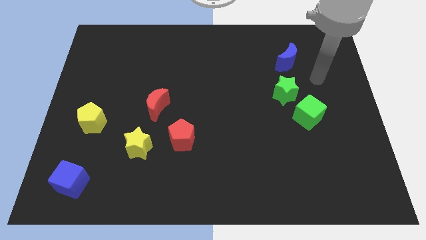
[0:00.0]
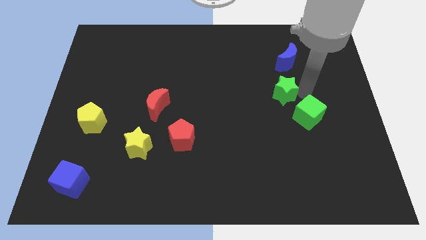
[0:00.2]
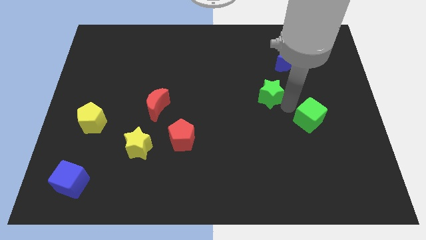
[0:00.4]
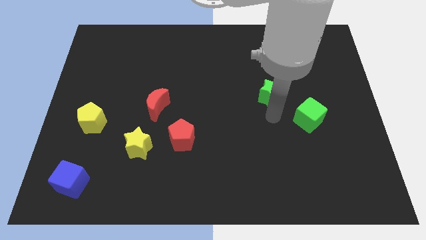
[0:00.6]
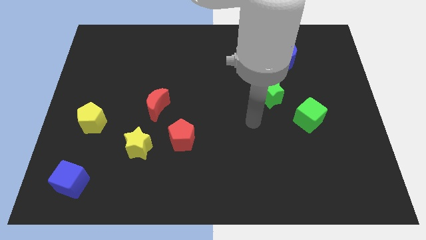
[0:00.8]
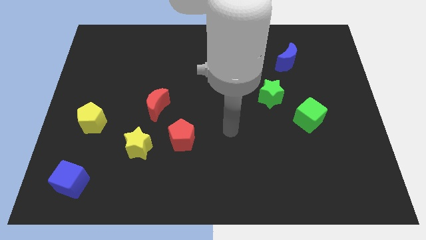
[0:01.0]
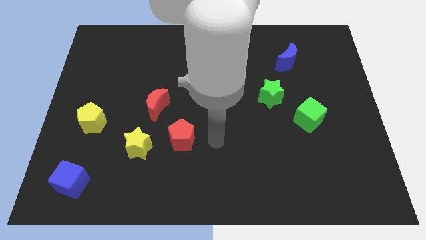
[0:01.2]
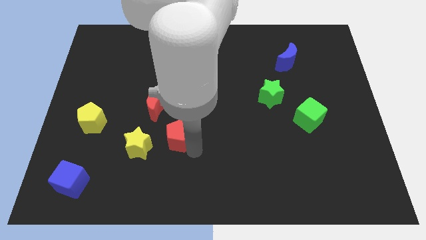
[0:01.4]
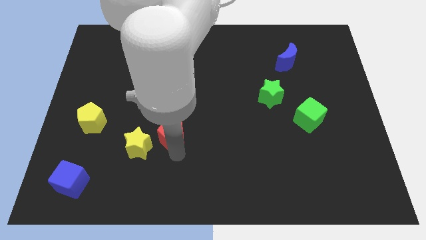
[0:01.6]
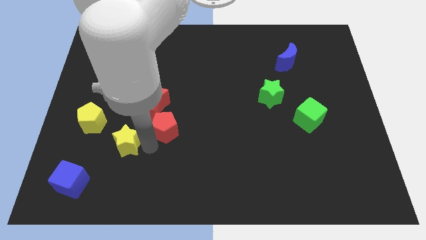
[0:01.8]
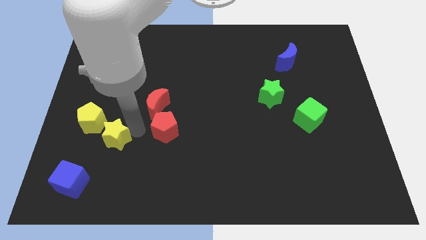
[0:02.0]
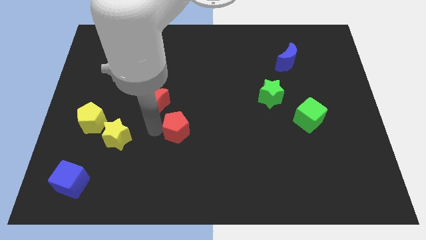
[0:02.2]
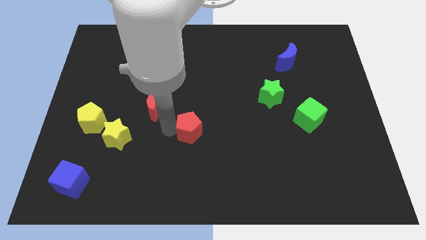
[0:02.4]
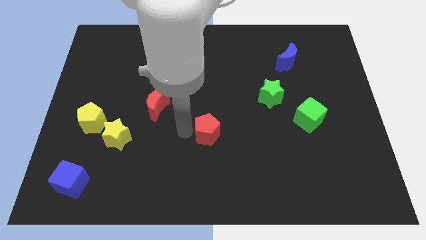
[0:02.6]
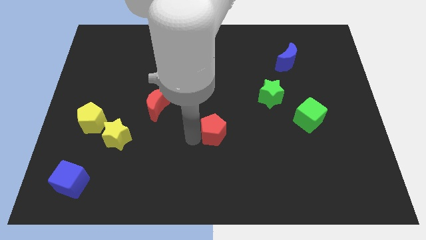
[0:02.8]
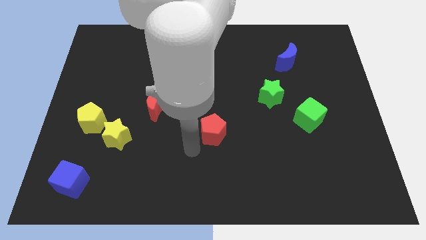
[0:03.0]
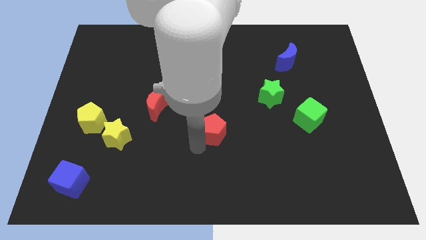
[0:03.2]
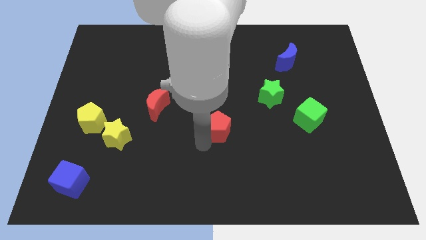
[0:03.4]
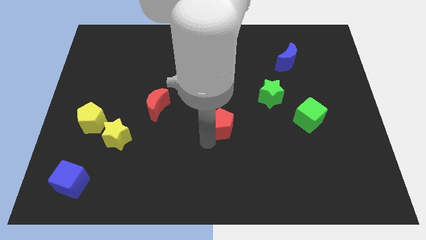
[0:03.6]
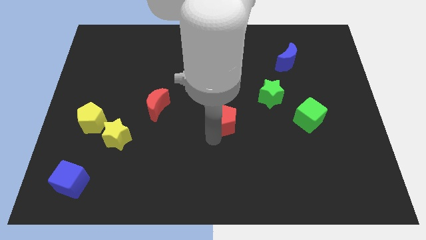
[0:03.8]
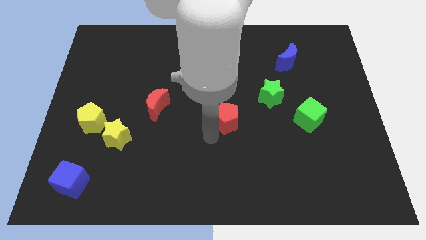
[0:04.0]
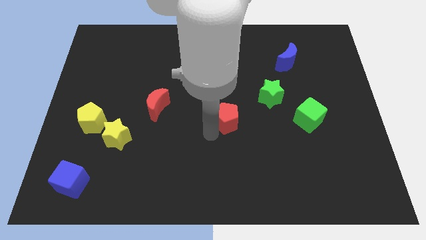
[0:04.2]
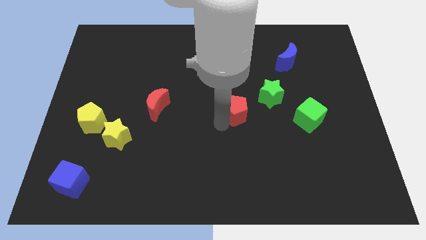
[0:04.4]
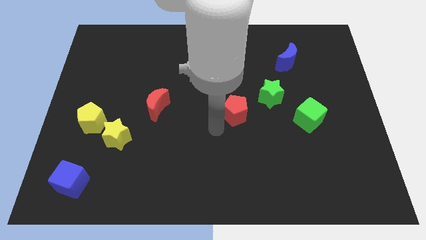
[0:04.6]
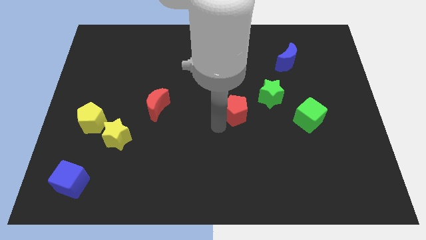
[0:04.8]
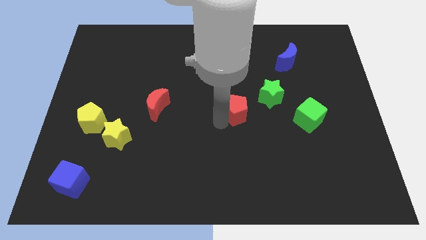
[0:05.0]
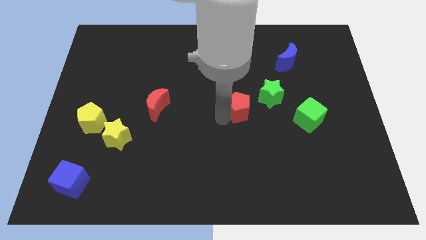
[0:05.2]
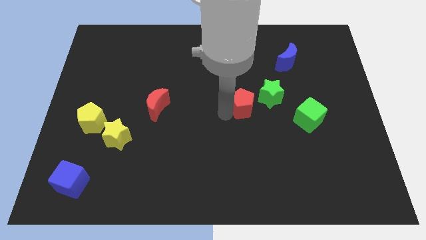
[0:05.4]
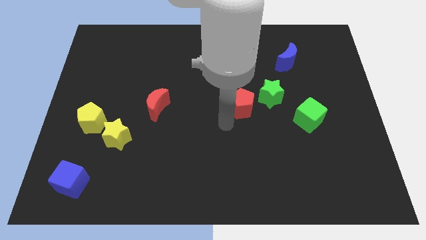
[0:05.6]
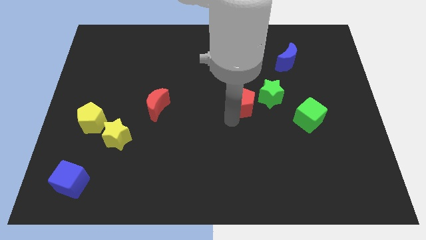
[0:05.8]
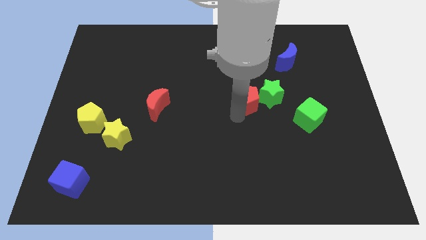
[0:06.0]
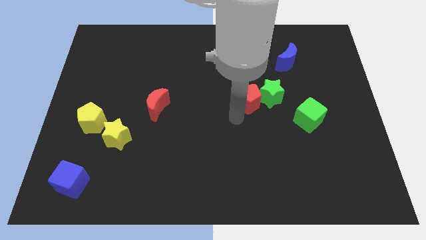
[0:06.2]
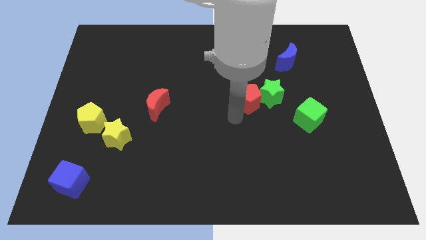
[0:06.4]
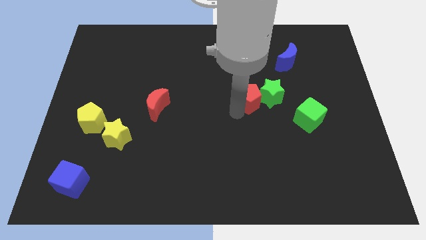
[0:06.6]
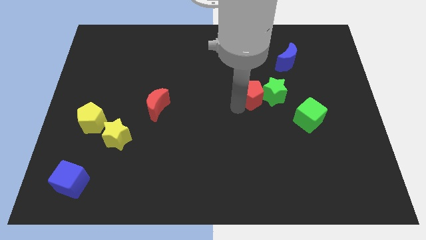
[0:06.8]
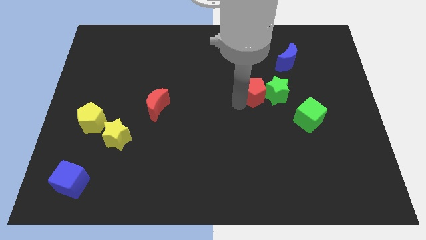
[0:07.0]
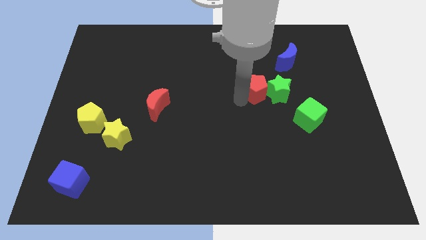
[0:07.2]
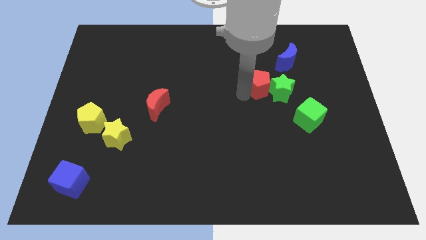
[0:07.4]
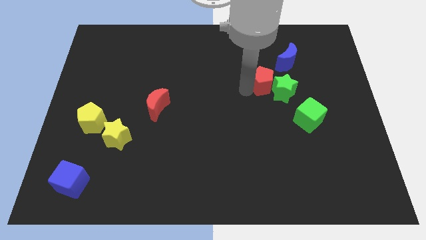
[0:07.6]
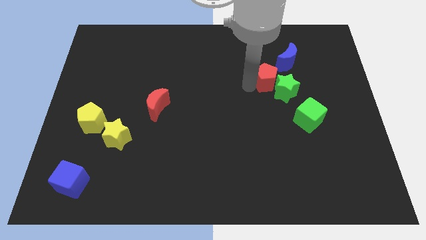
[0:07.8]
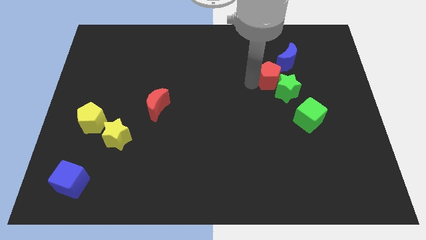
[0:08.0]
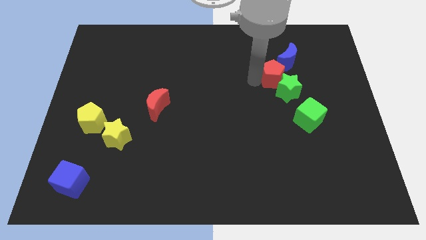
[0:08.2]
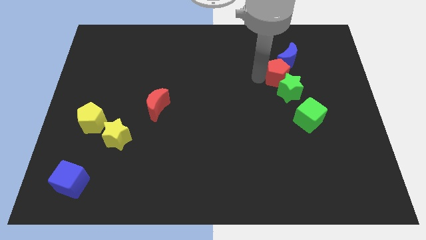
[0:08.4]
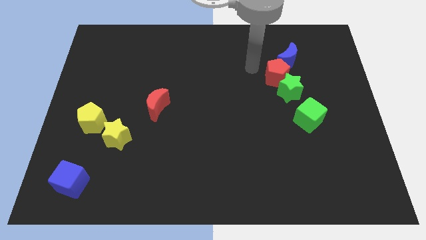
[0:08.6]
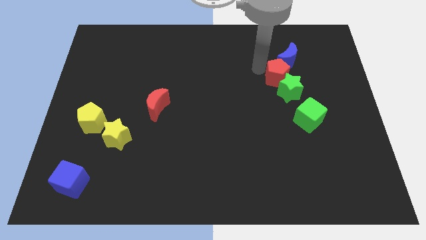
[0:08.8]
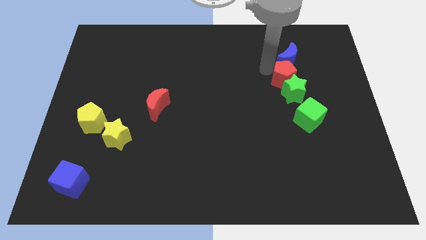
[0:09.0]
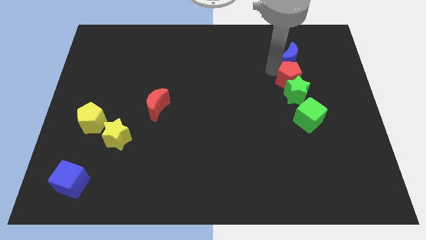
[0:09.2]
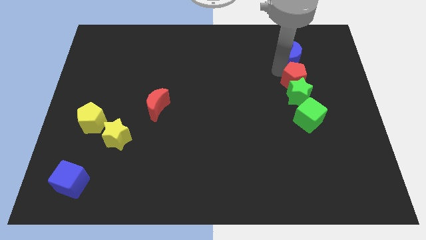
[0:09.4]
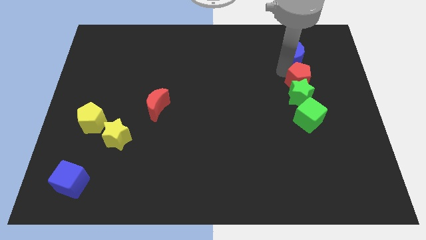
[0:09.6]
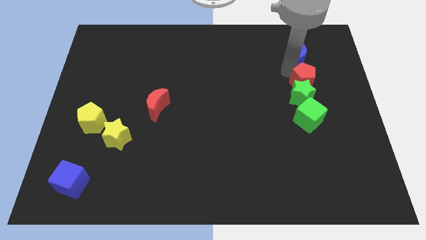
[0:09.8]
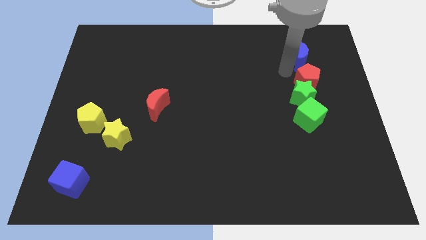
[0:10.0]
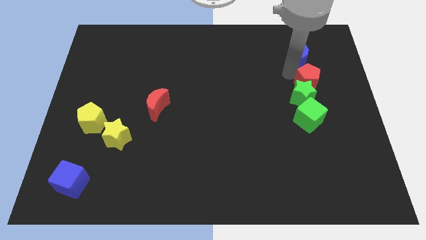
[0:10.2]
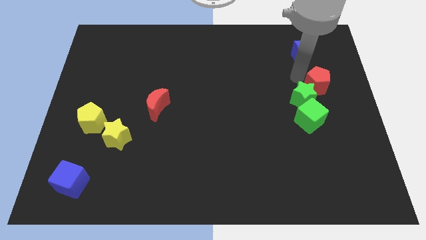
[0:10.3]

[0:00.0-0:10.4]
move the red pentagon to the right side of the green star

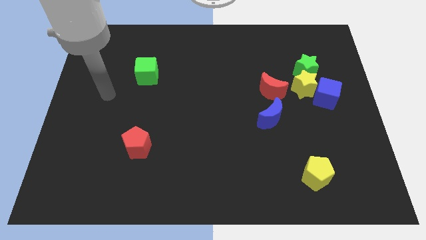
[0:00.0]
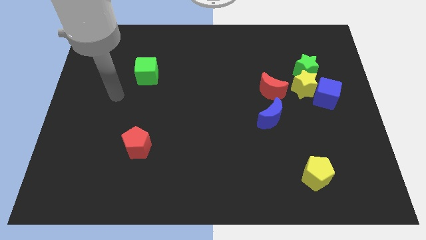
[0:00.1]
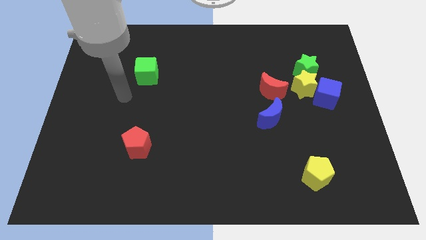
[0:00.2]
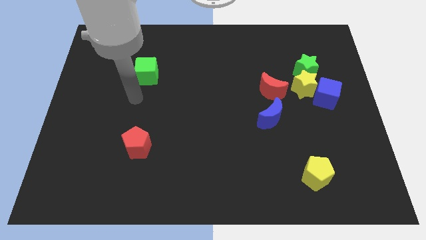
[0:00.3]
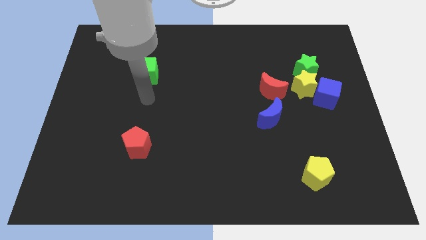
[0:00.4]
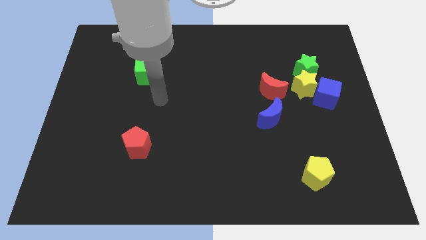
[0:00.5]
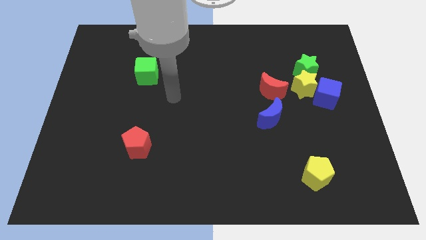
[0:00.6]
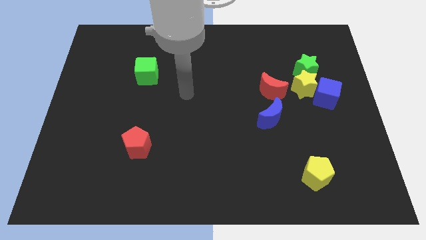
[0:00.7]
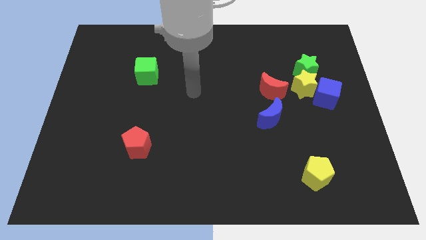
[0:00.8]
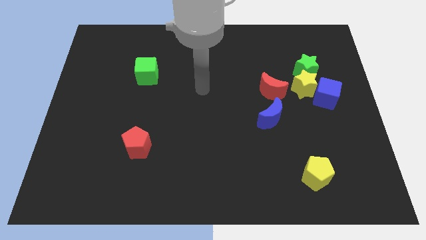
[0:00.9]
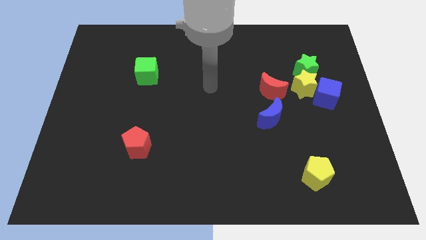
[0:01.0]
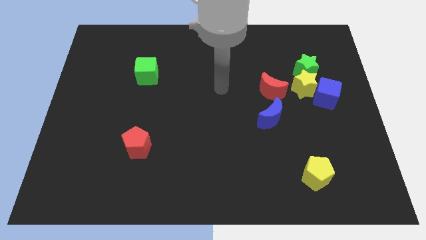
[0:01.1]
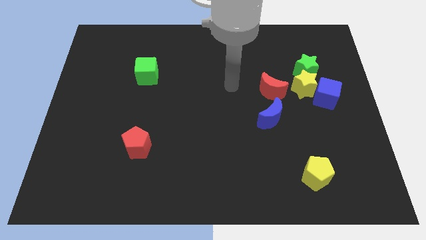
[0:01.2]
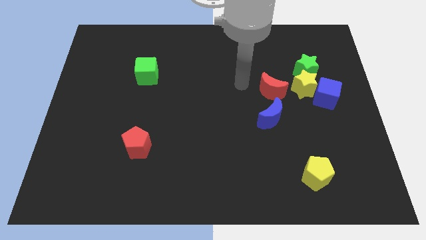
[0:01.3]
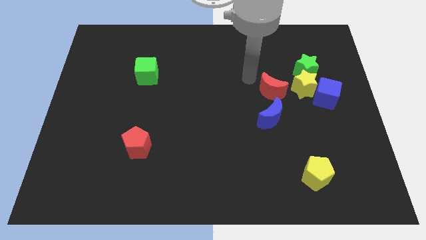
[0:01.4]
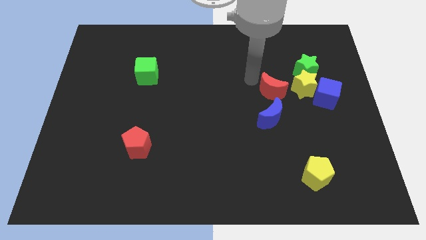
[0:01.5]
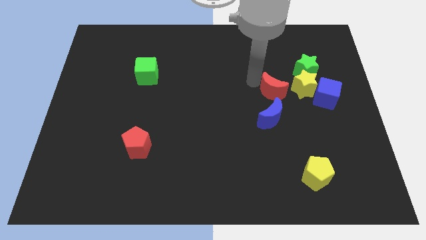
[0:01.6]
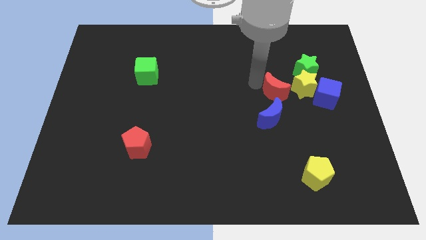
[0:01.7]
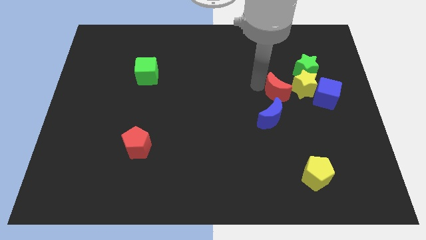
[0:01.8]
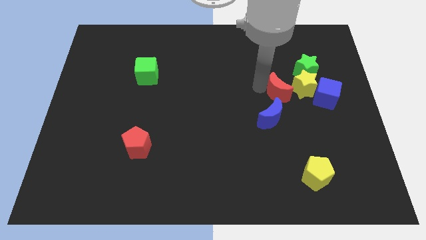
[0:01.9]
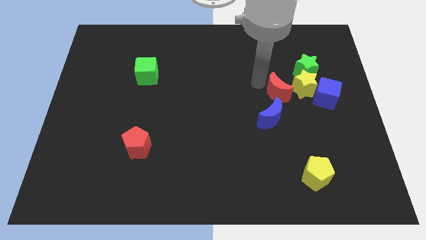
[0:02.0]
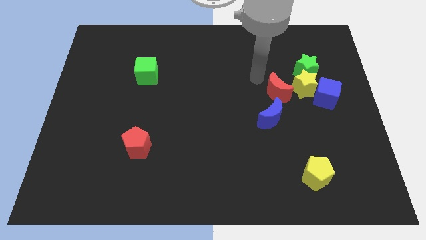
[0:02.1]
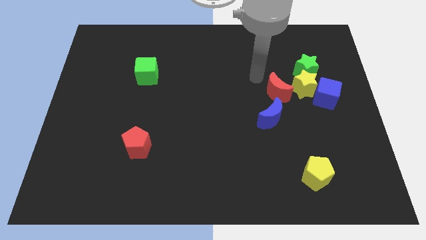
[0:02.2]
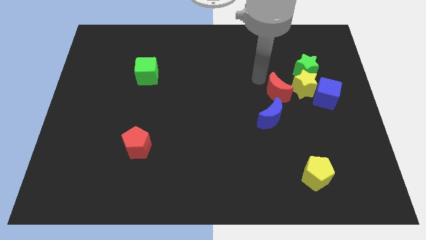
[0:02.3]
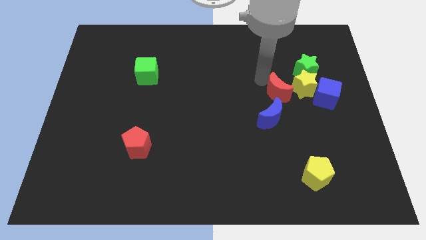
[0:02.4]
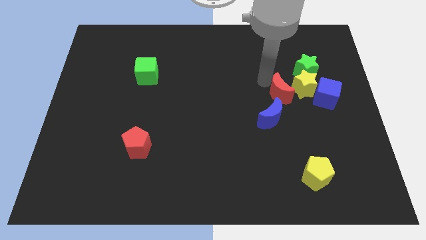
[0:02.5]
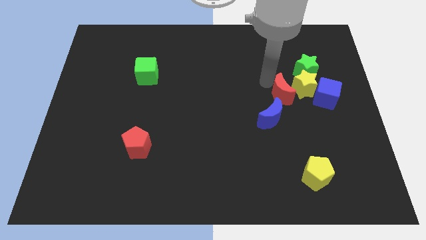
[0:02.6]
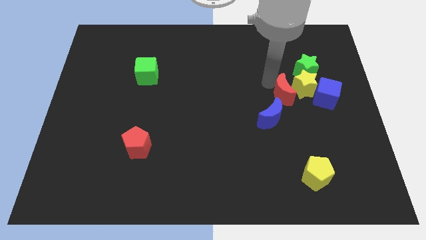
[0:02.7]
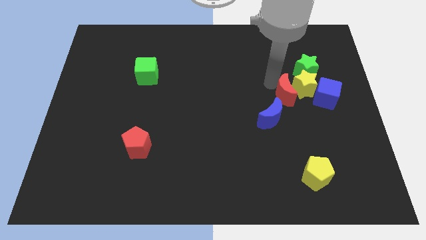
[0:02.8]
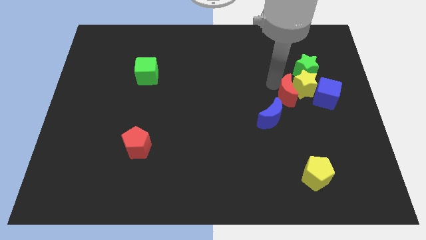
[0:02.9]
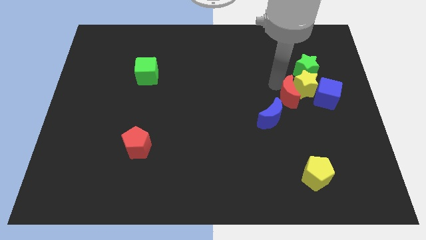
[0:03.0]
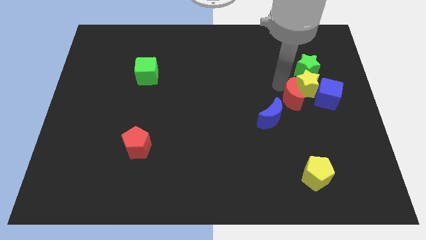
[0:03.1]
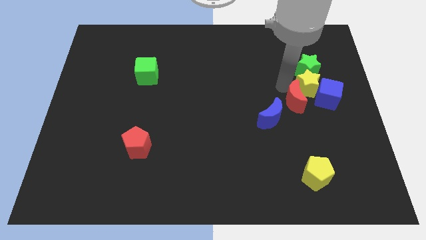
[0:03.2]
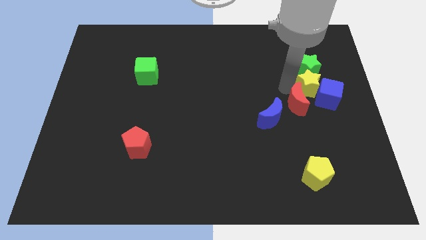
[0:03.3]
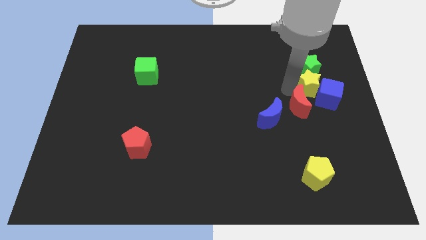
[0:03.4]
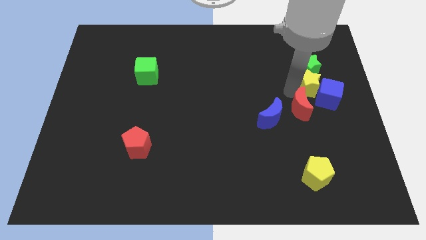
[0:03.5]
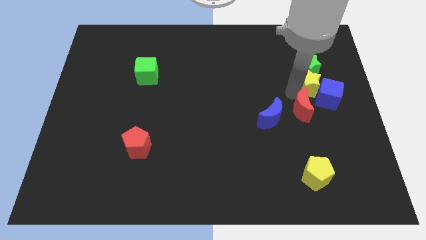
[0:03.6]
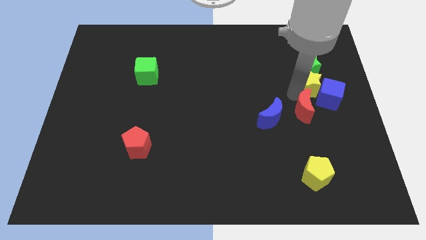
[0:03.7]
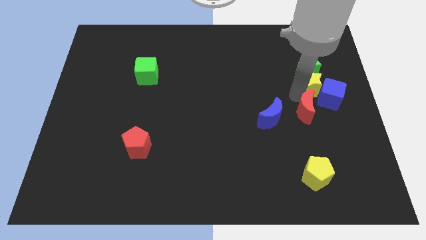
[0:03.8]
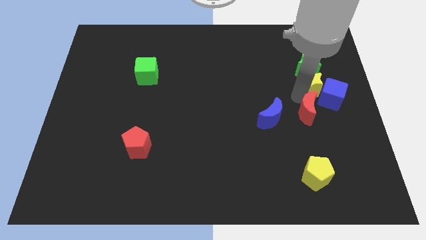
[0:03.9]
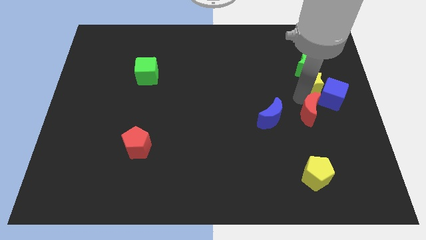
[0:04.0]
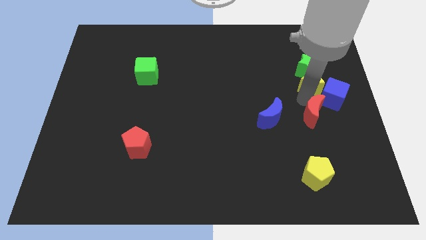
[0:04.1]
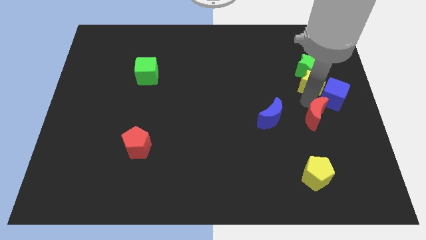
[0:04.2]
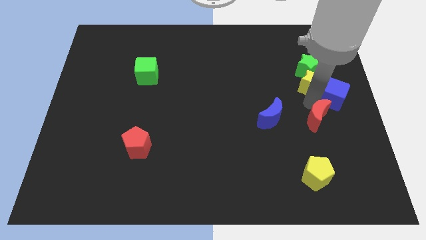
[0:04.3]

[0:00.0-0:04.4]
put the red moon to the bottom of the blue cube
